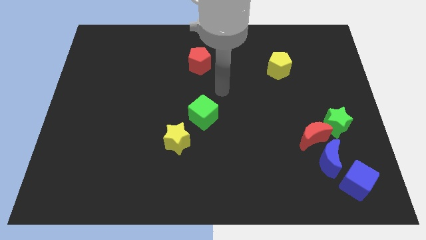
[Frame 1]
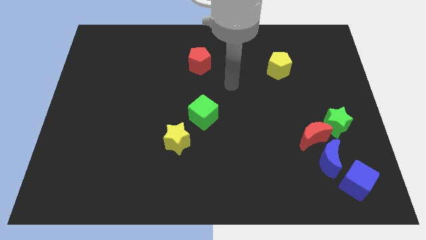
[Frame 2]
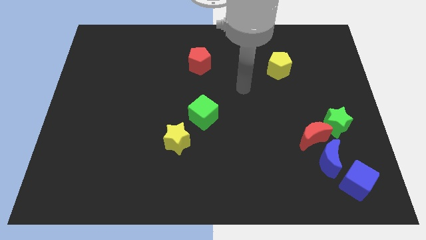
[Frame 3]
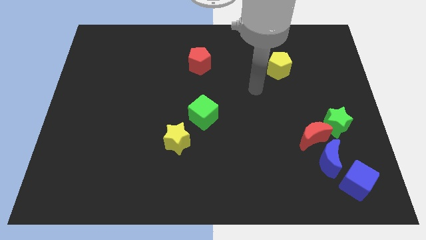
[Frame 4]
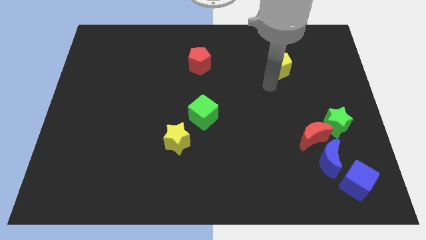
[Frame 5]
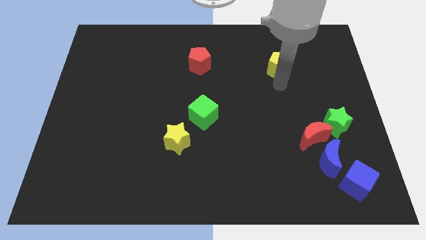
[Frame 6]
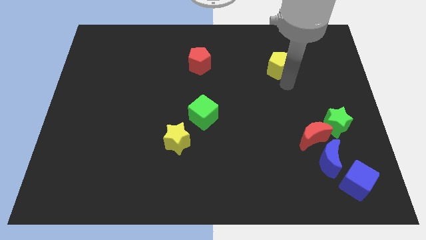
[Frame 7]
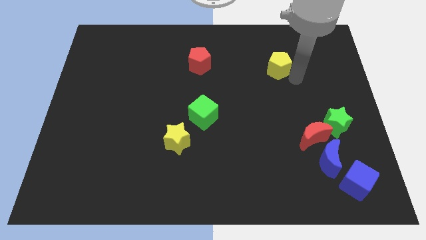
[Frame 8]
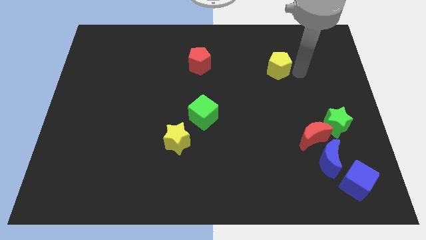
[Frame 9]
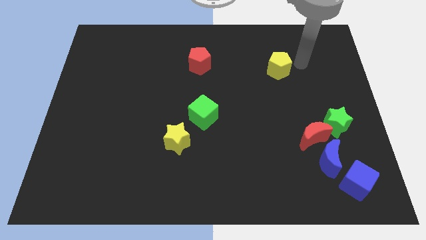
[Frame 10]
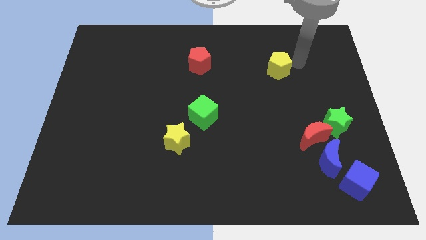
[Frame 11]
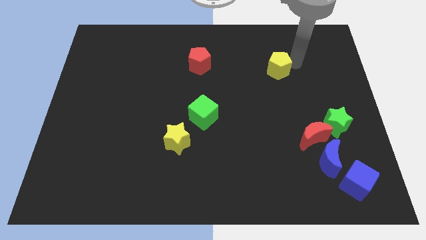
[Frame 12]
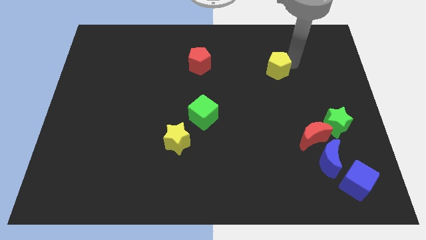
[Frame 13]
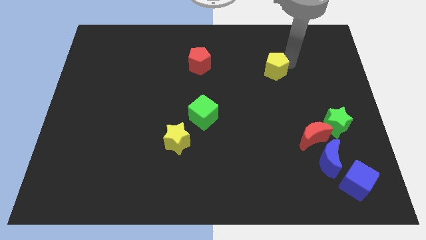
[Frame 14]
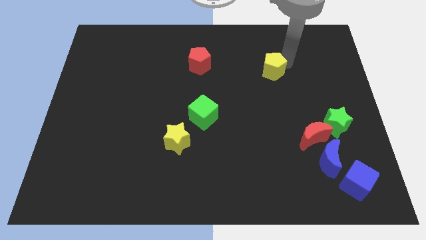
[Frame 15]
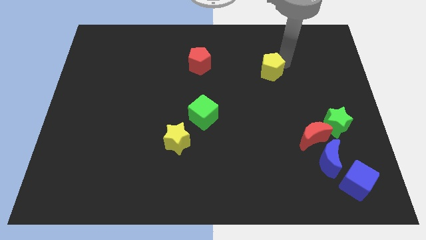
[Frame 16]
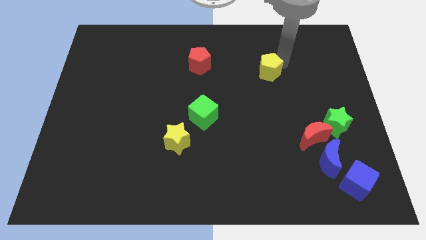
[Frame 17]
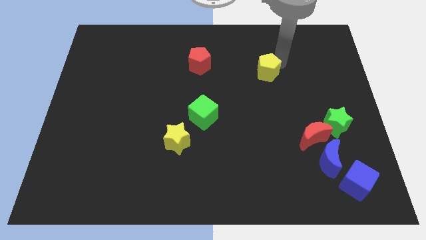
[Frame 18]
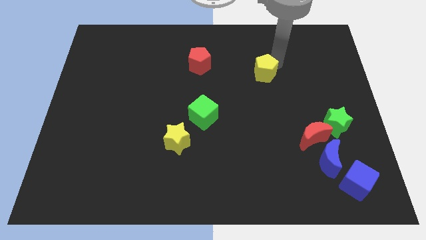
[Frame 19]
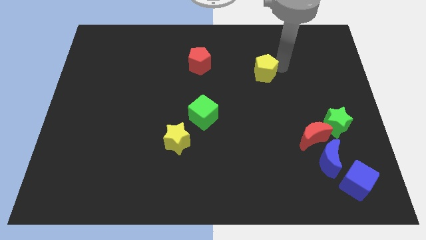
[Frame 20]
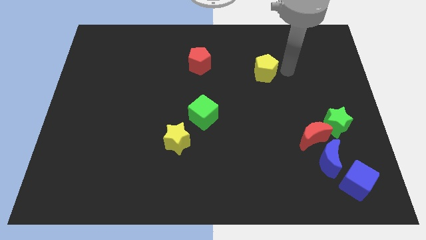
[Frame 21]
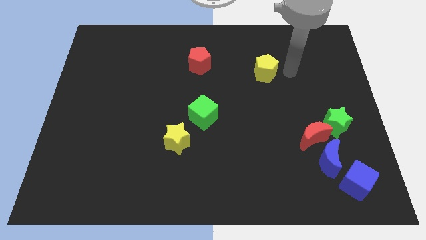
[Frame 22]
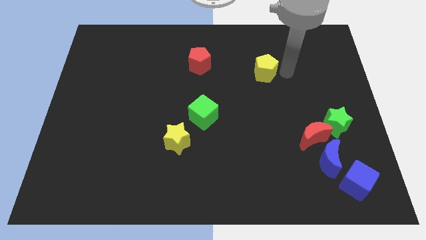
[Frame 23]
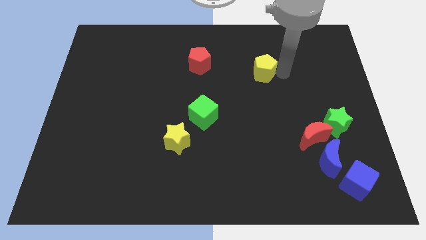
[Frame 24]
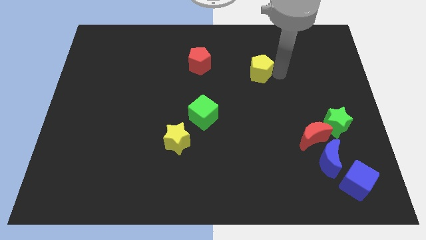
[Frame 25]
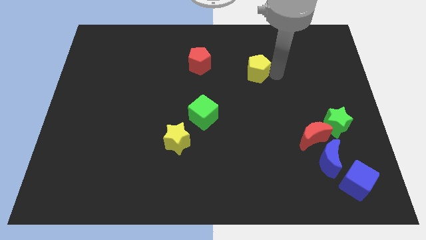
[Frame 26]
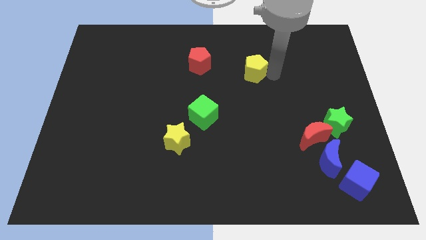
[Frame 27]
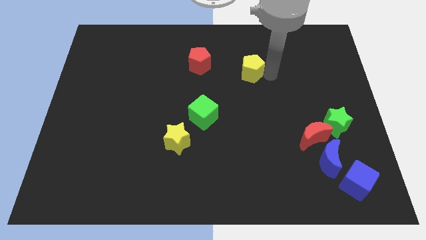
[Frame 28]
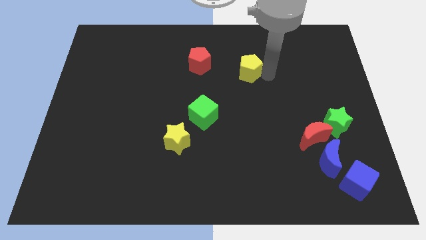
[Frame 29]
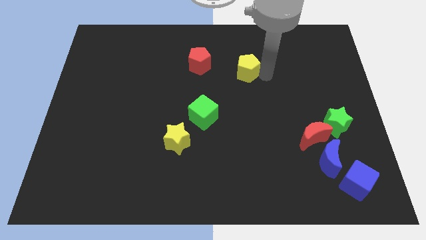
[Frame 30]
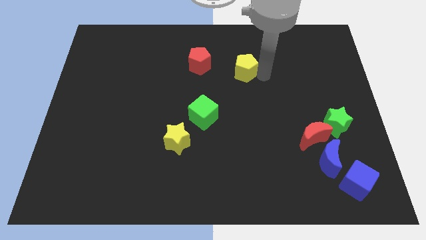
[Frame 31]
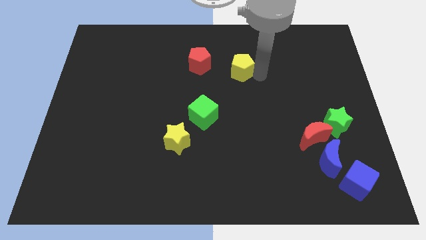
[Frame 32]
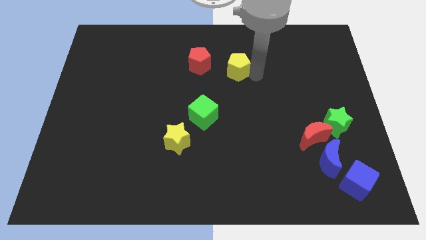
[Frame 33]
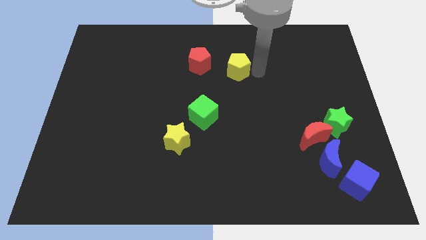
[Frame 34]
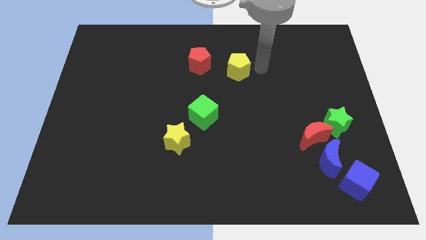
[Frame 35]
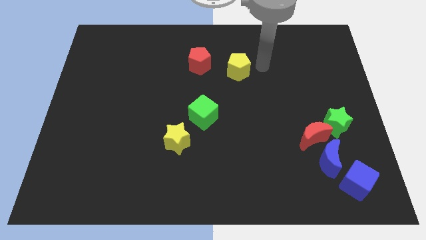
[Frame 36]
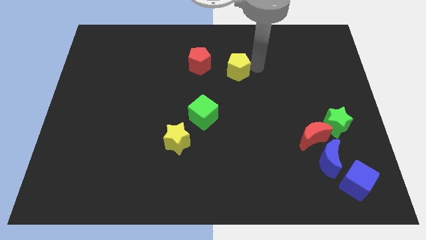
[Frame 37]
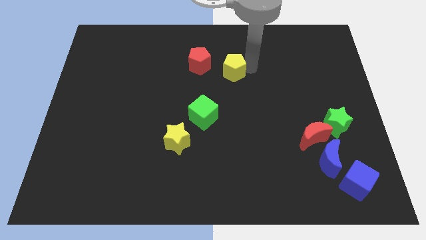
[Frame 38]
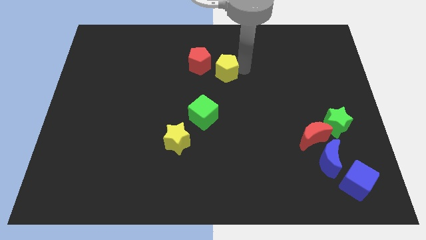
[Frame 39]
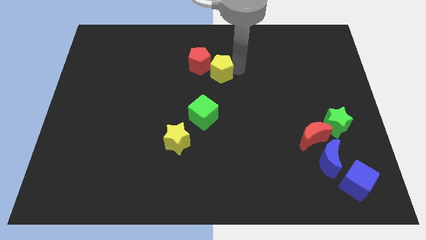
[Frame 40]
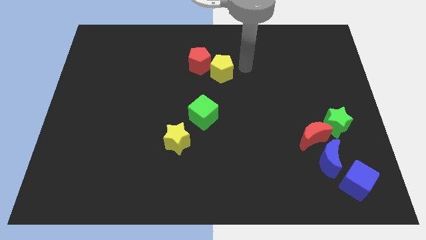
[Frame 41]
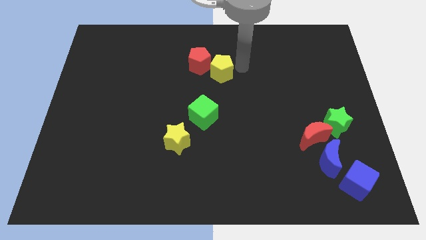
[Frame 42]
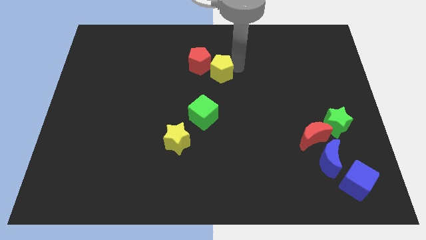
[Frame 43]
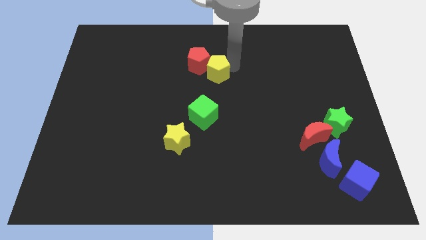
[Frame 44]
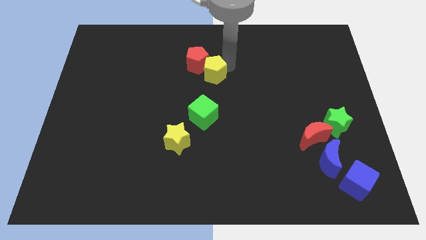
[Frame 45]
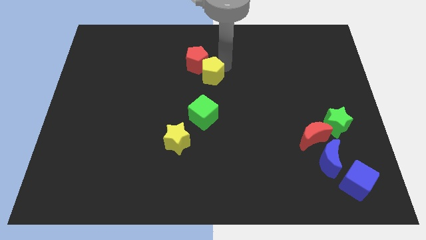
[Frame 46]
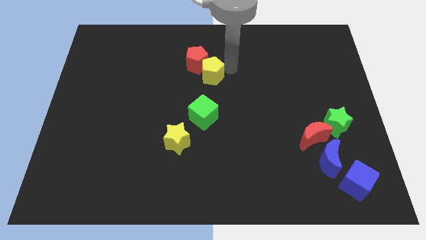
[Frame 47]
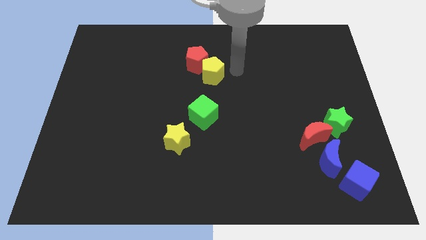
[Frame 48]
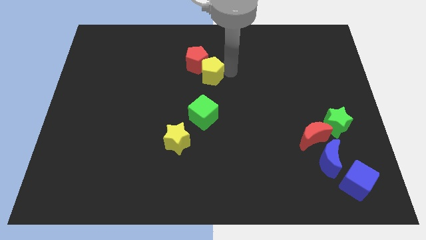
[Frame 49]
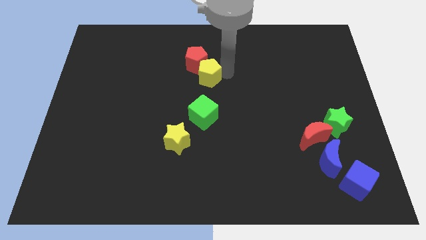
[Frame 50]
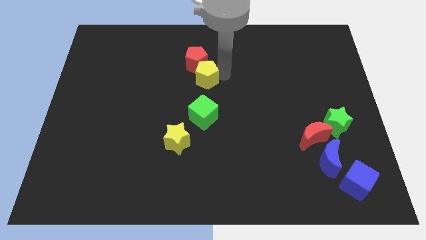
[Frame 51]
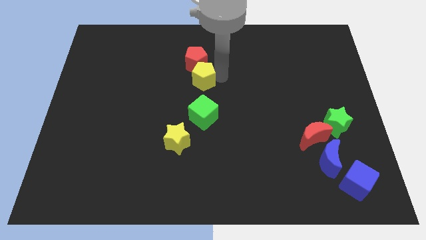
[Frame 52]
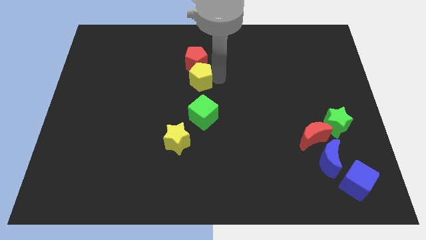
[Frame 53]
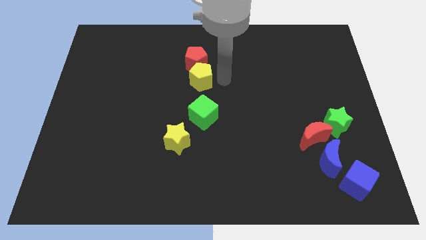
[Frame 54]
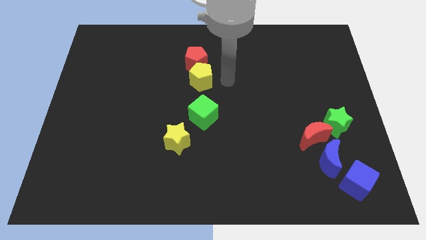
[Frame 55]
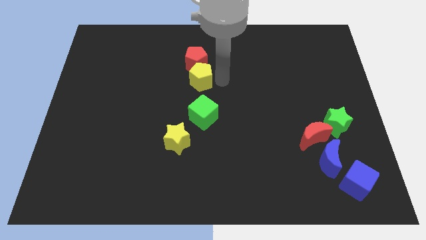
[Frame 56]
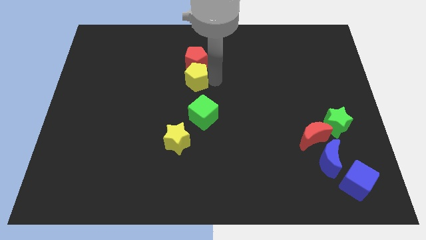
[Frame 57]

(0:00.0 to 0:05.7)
put the yellow pentagon to the bottom left side of the red pentagon

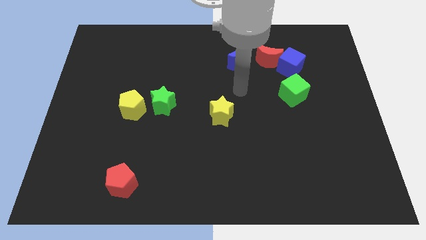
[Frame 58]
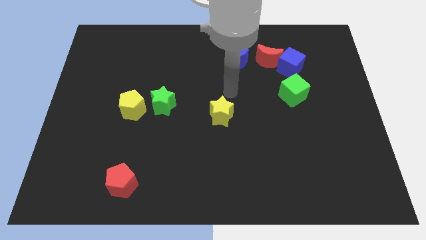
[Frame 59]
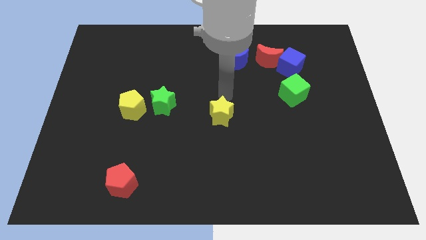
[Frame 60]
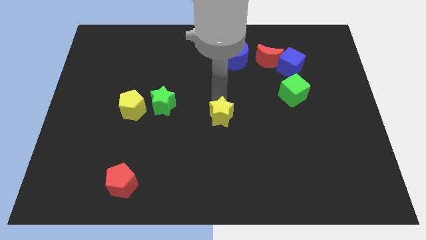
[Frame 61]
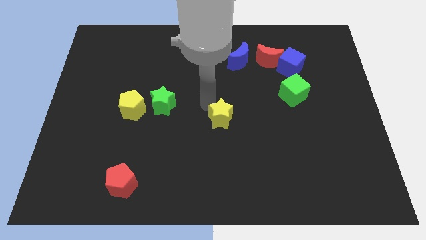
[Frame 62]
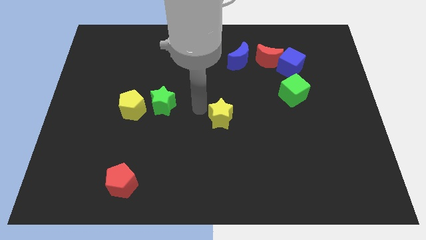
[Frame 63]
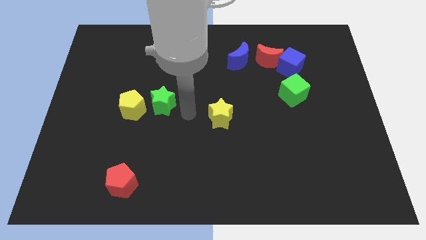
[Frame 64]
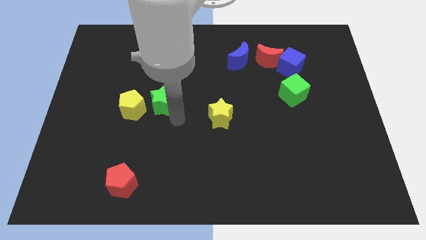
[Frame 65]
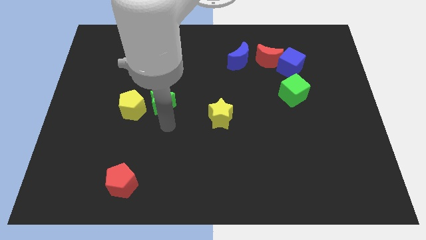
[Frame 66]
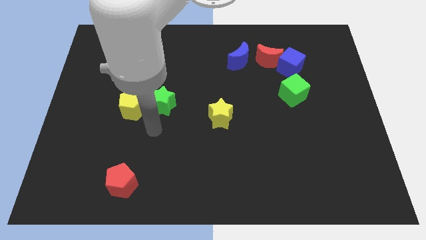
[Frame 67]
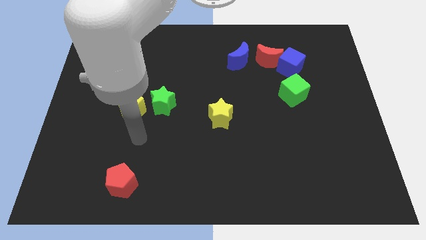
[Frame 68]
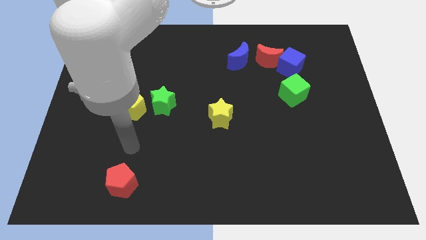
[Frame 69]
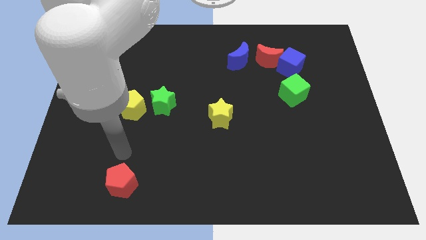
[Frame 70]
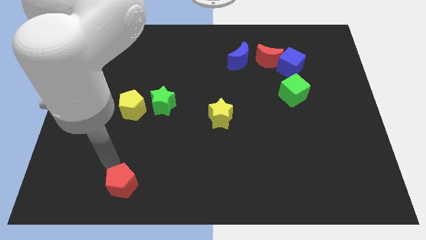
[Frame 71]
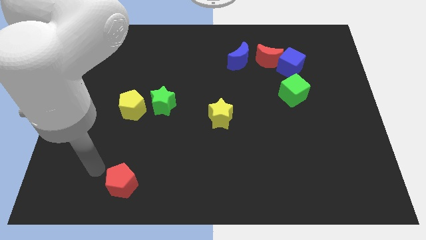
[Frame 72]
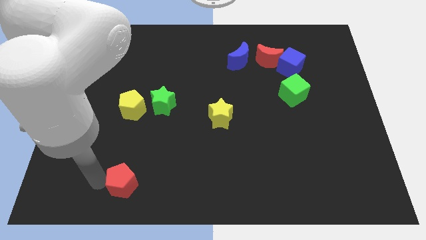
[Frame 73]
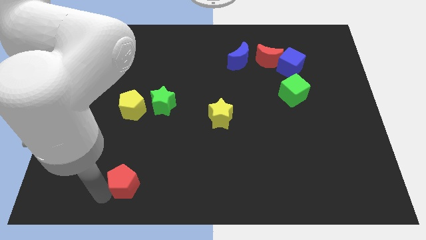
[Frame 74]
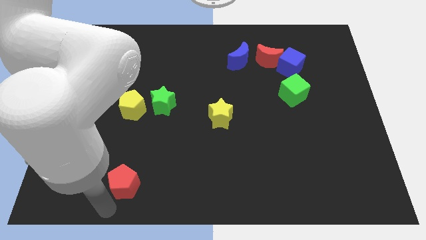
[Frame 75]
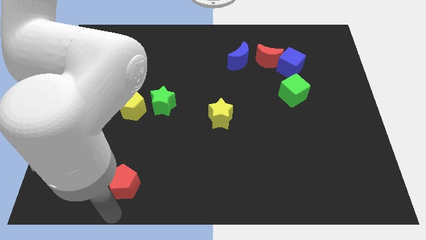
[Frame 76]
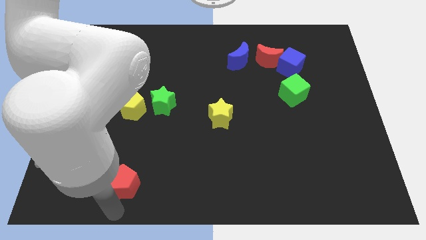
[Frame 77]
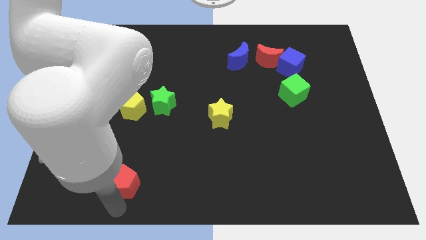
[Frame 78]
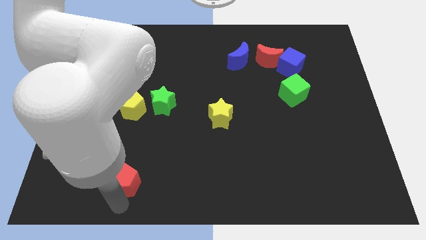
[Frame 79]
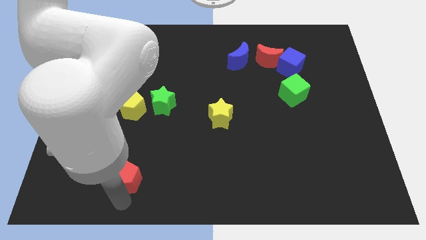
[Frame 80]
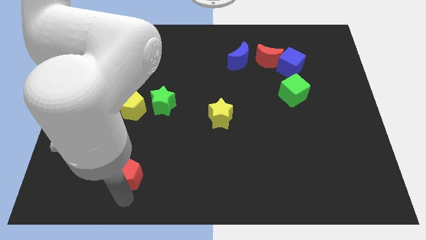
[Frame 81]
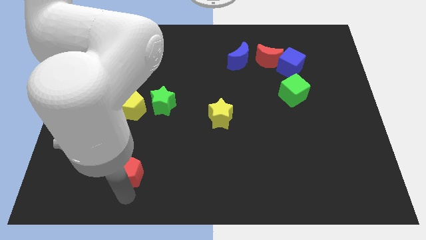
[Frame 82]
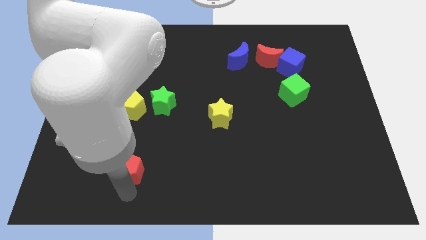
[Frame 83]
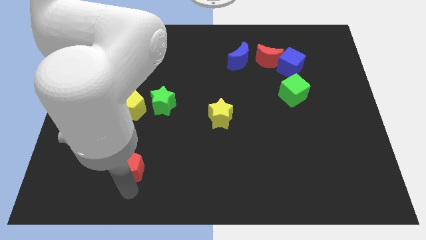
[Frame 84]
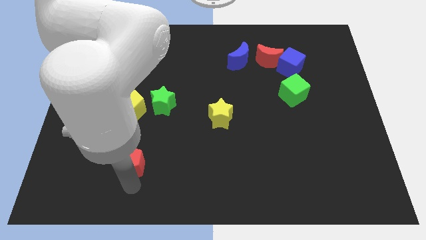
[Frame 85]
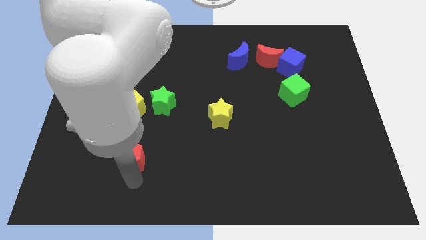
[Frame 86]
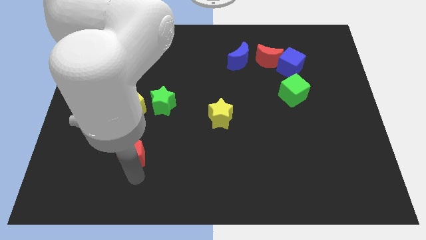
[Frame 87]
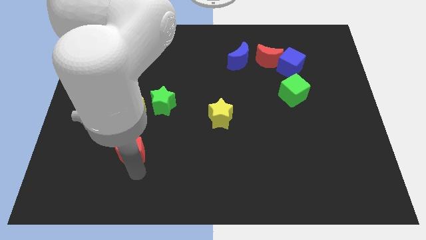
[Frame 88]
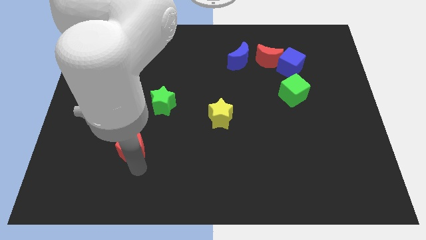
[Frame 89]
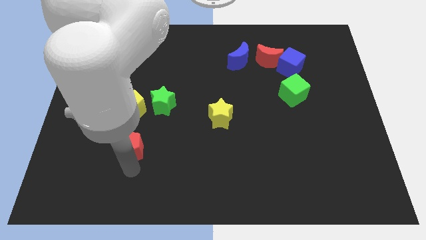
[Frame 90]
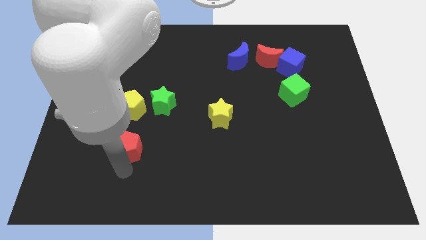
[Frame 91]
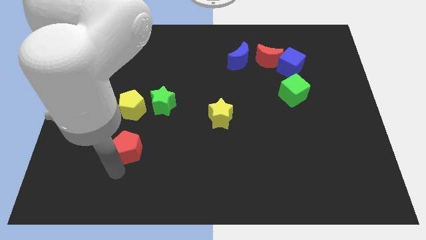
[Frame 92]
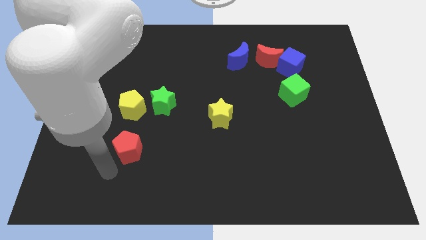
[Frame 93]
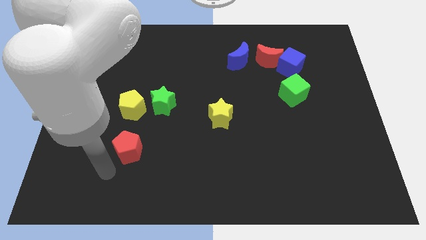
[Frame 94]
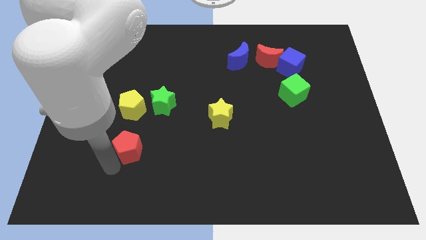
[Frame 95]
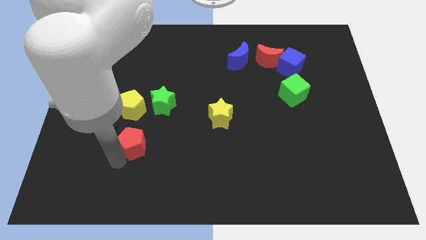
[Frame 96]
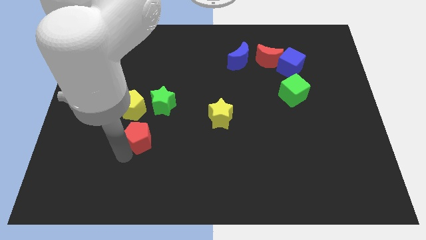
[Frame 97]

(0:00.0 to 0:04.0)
slide the red pentagon diagonally down and to the right of the yellow pentagon
